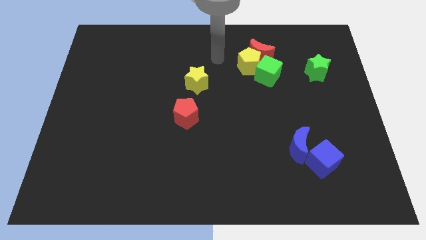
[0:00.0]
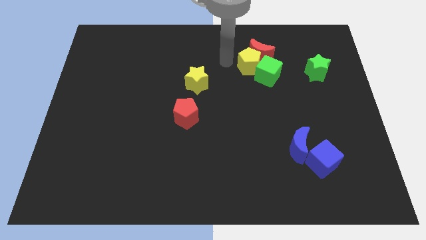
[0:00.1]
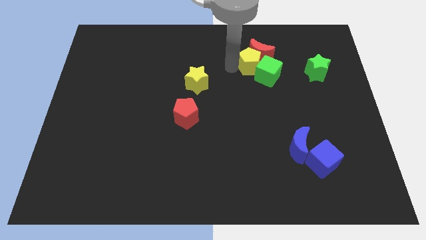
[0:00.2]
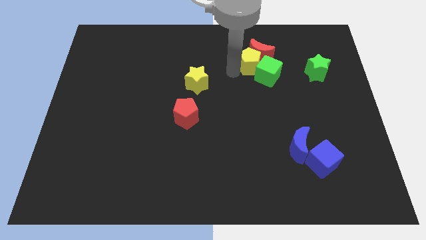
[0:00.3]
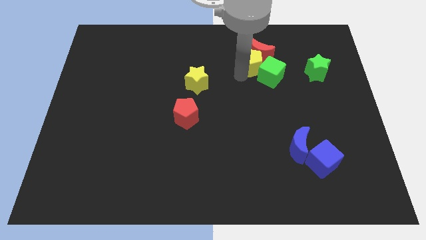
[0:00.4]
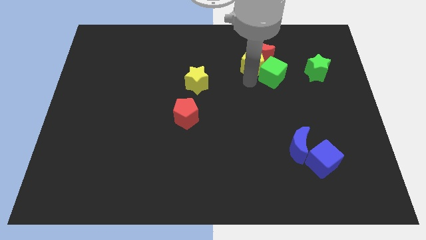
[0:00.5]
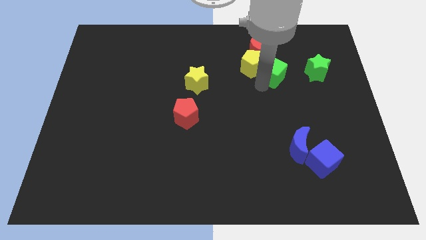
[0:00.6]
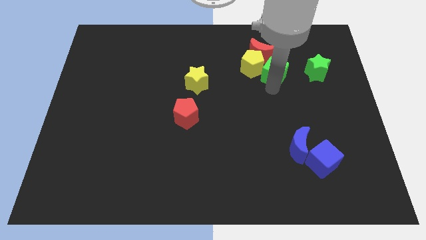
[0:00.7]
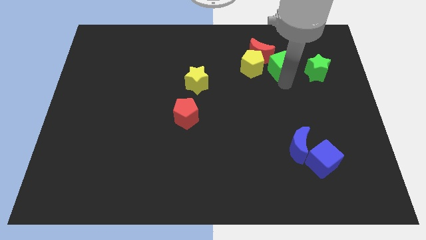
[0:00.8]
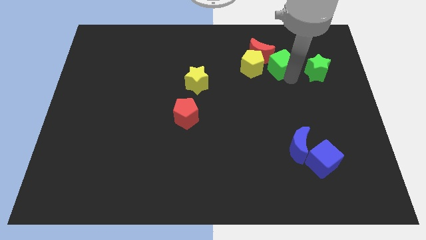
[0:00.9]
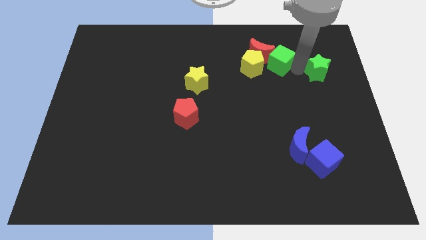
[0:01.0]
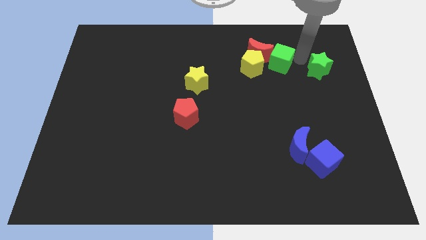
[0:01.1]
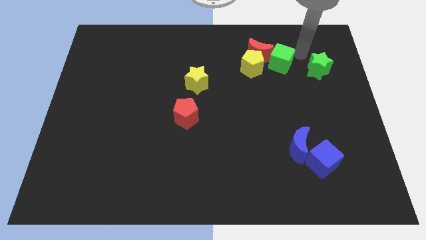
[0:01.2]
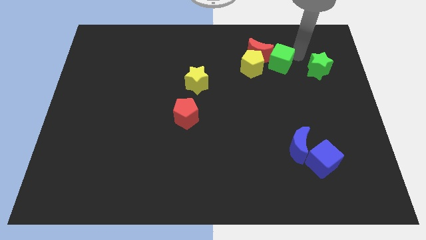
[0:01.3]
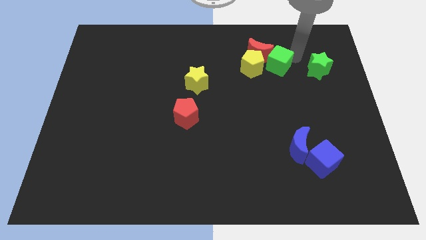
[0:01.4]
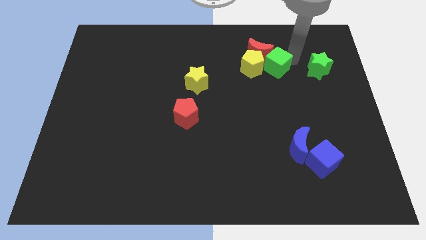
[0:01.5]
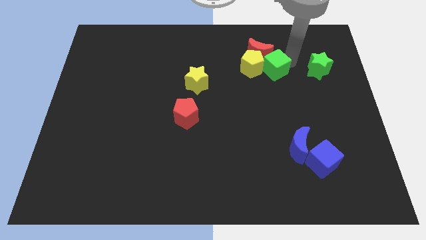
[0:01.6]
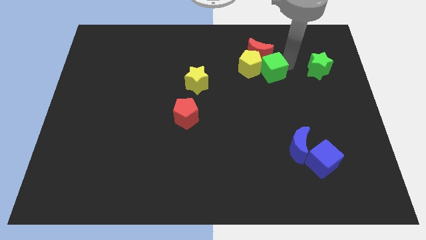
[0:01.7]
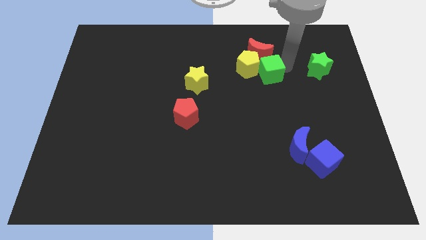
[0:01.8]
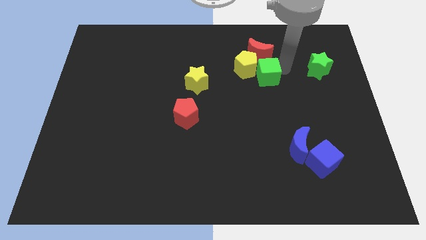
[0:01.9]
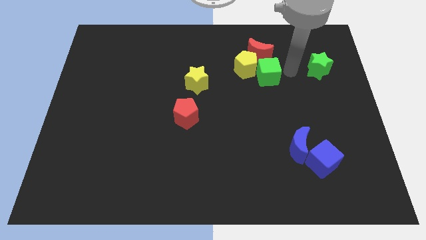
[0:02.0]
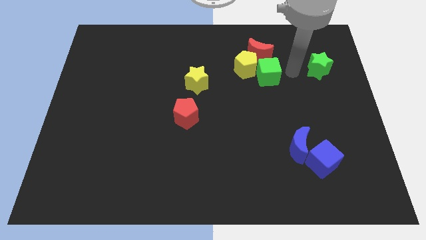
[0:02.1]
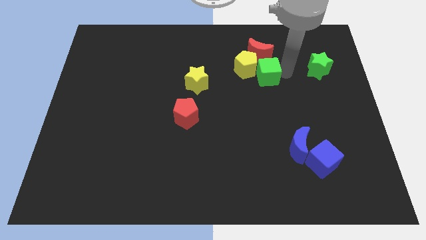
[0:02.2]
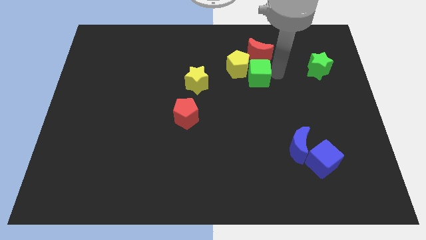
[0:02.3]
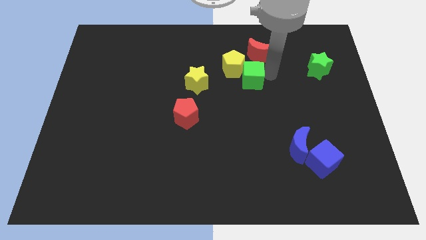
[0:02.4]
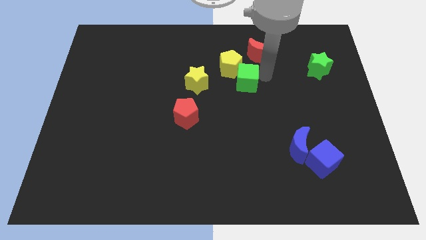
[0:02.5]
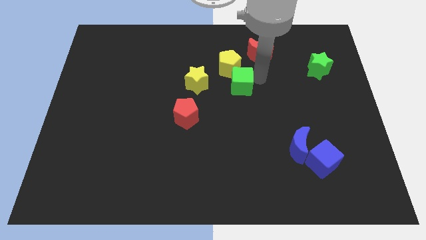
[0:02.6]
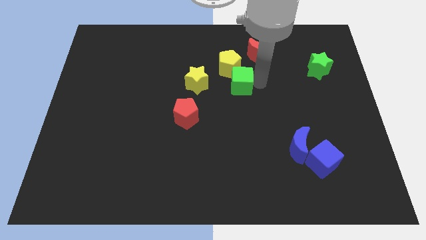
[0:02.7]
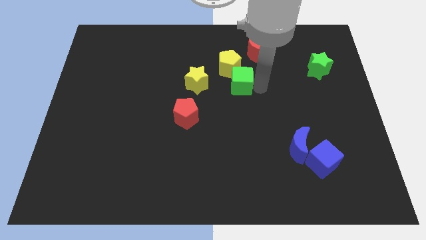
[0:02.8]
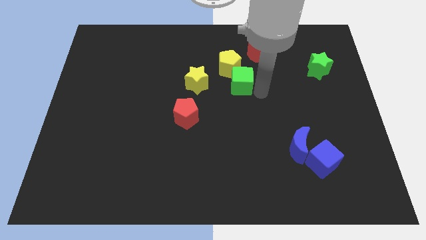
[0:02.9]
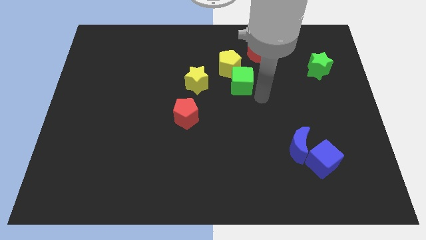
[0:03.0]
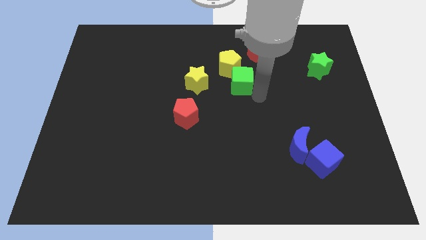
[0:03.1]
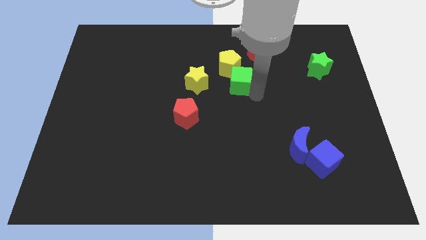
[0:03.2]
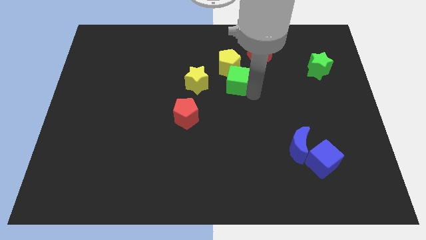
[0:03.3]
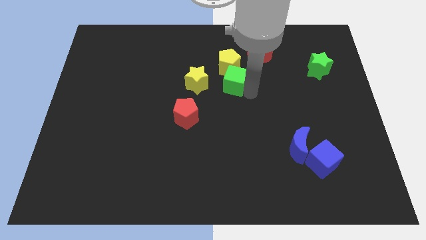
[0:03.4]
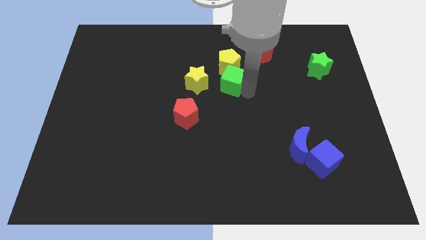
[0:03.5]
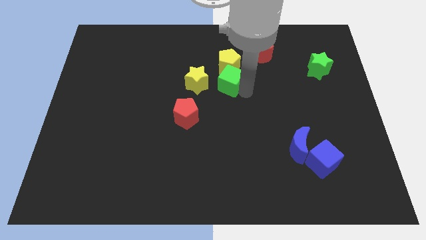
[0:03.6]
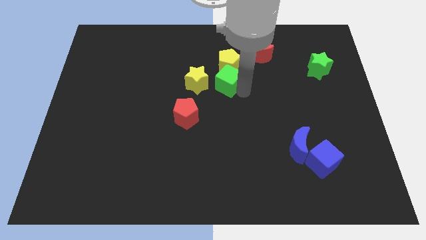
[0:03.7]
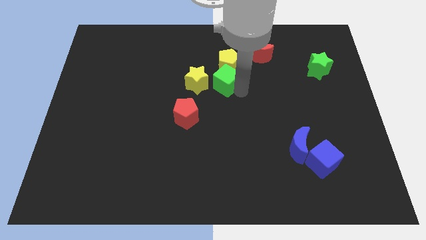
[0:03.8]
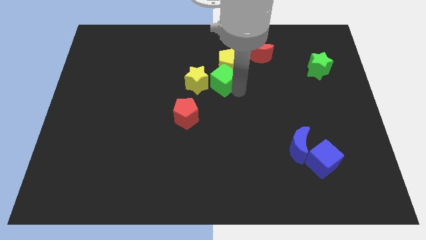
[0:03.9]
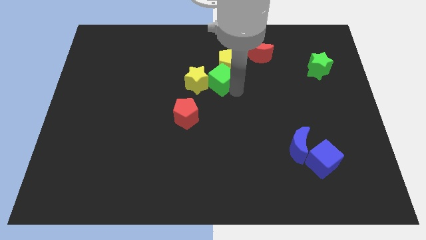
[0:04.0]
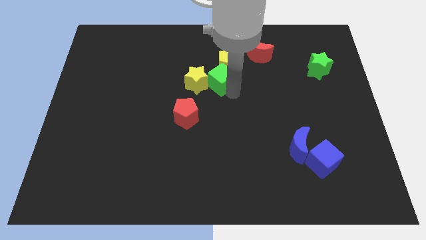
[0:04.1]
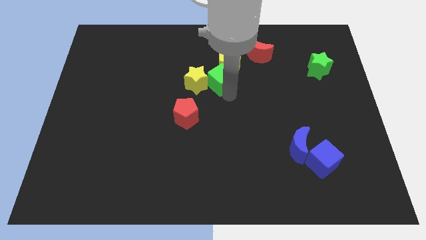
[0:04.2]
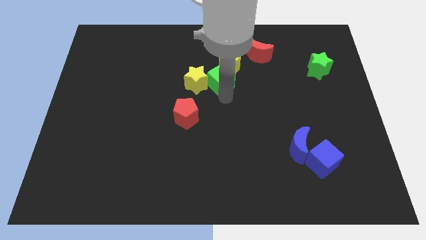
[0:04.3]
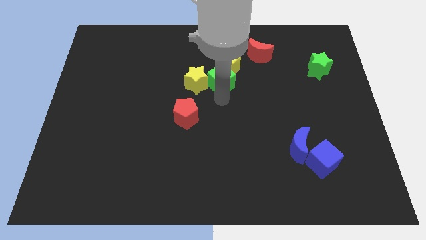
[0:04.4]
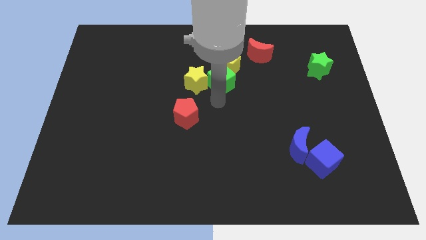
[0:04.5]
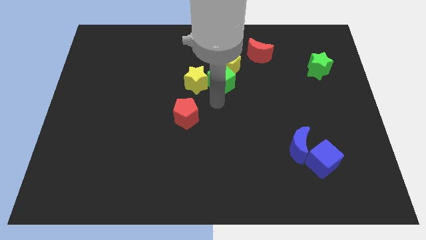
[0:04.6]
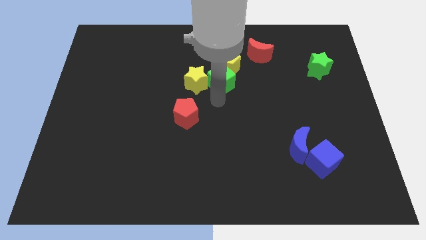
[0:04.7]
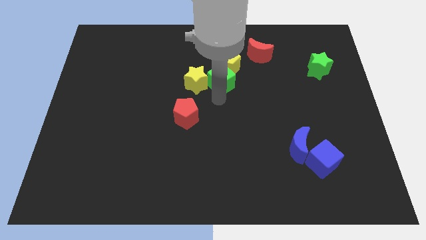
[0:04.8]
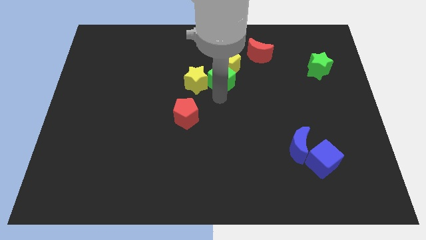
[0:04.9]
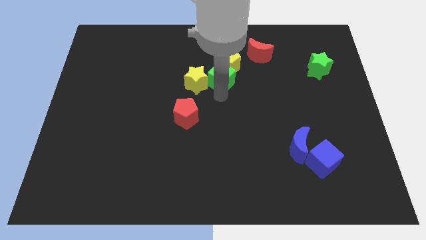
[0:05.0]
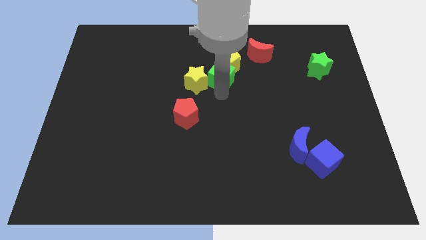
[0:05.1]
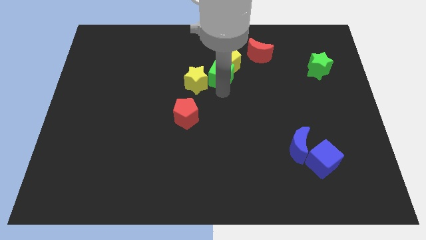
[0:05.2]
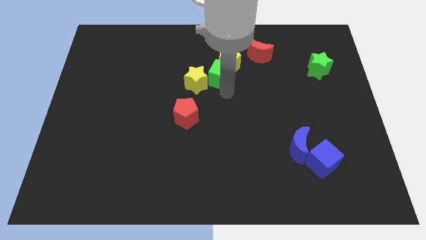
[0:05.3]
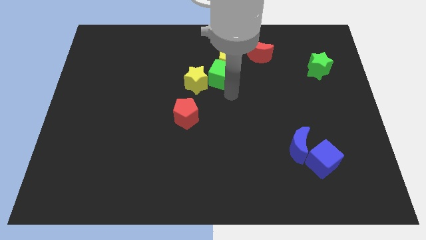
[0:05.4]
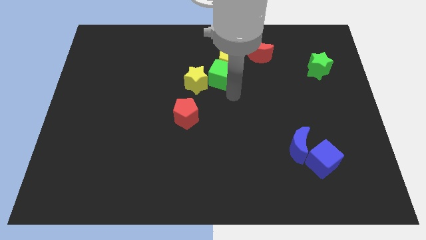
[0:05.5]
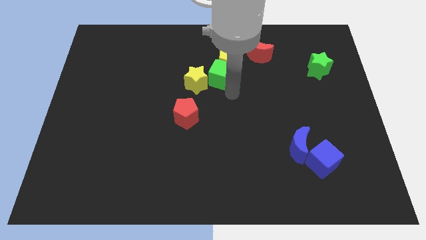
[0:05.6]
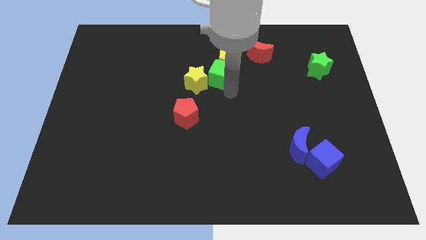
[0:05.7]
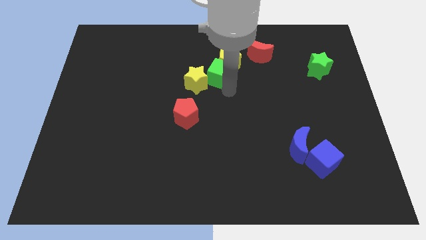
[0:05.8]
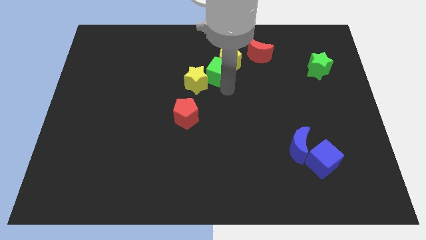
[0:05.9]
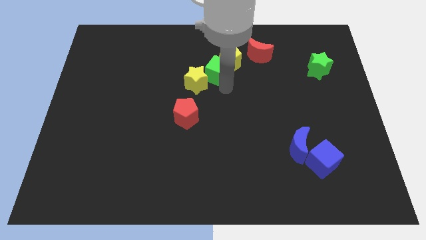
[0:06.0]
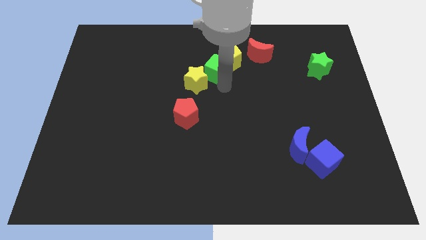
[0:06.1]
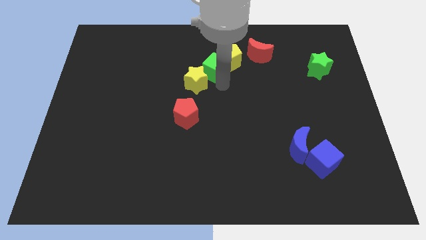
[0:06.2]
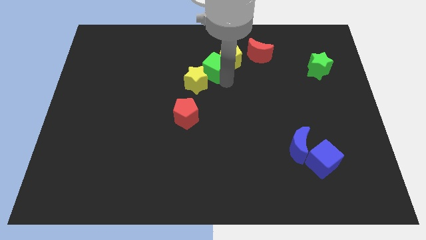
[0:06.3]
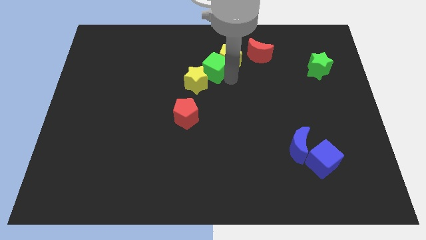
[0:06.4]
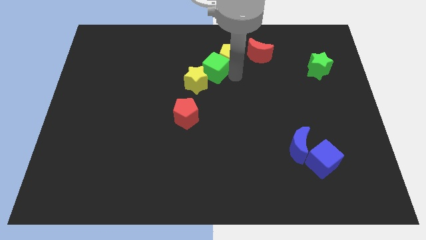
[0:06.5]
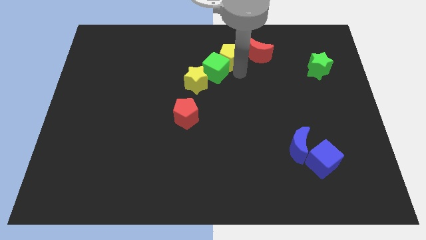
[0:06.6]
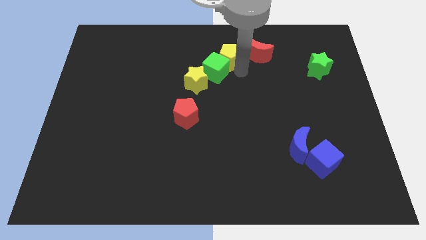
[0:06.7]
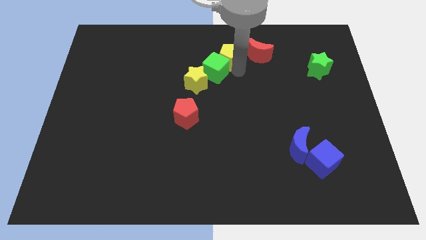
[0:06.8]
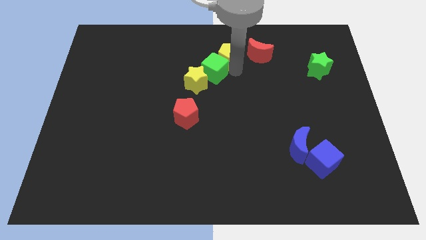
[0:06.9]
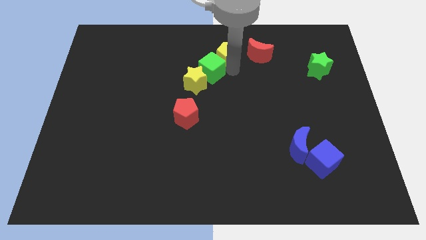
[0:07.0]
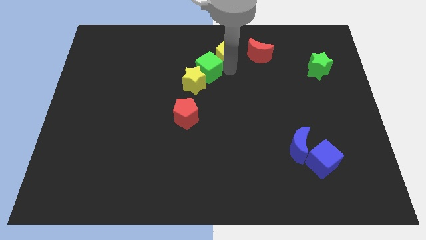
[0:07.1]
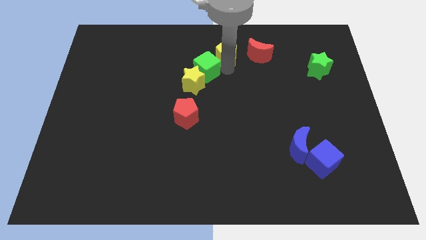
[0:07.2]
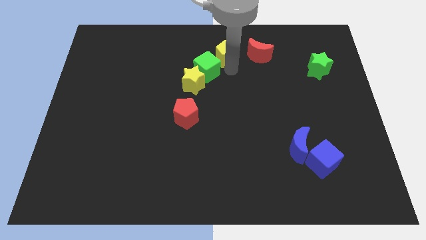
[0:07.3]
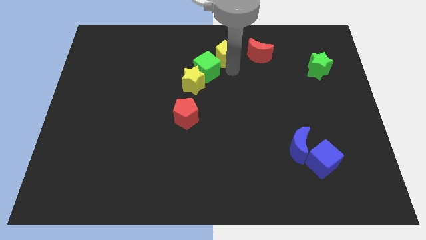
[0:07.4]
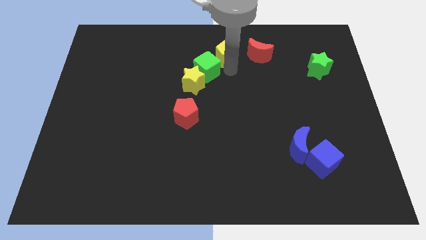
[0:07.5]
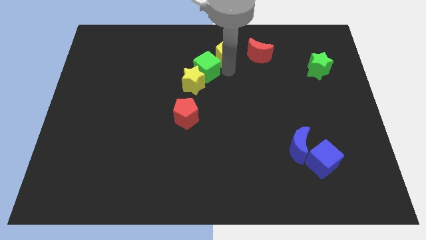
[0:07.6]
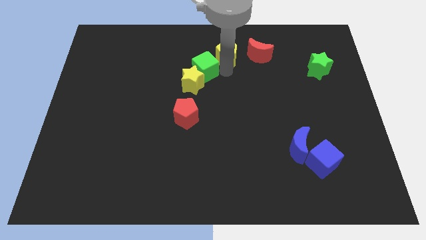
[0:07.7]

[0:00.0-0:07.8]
push the green cube to the top of the red pentagon
